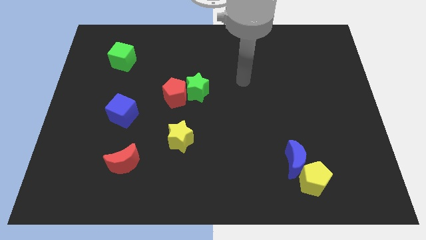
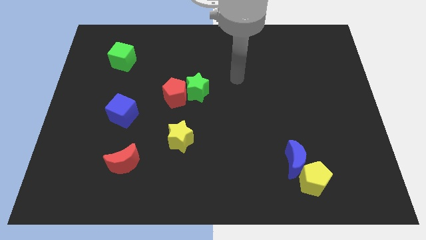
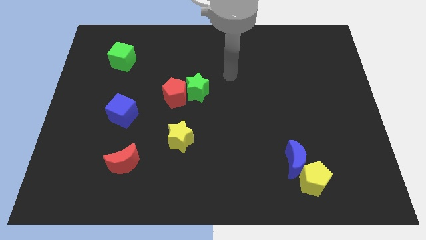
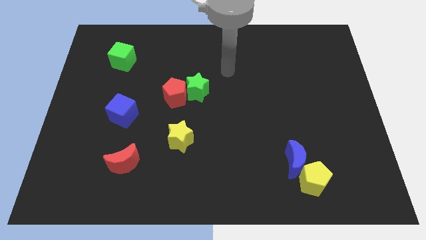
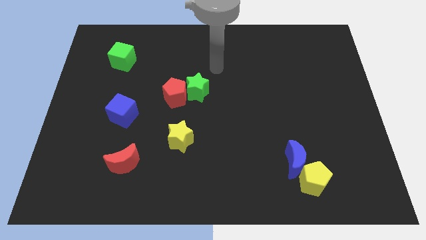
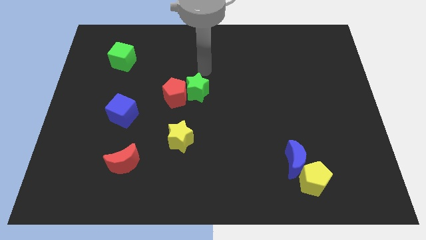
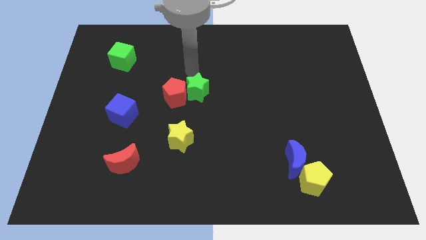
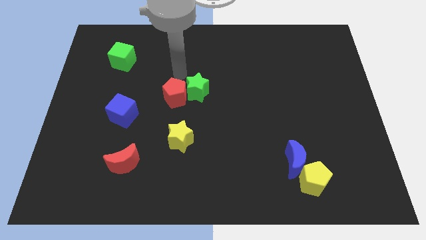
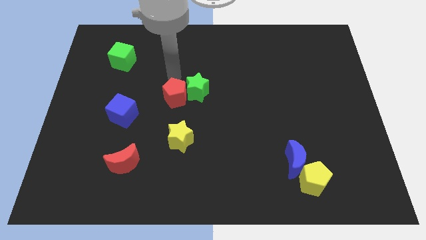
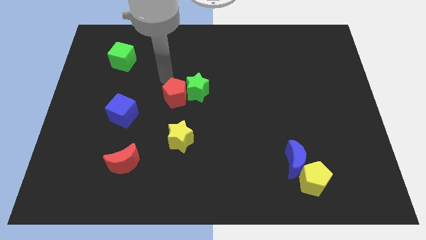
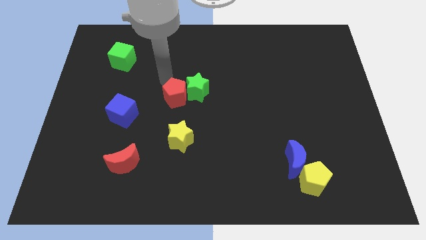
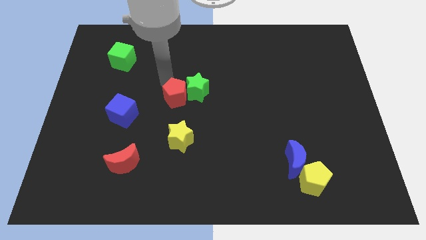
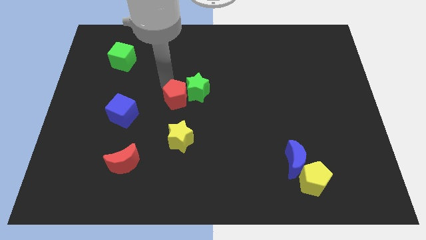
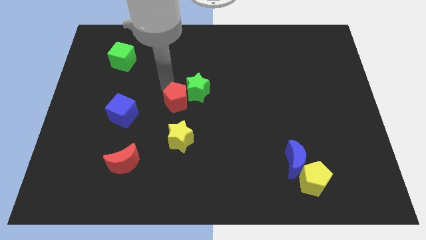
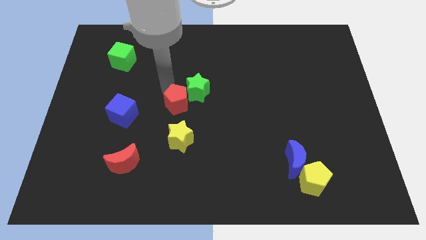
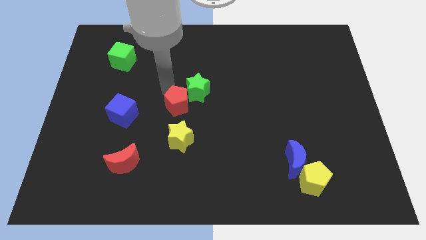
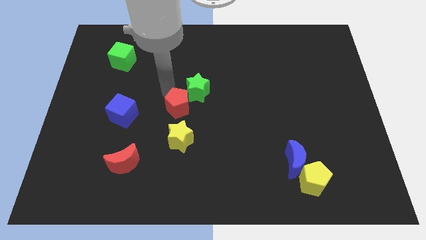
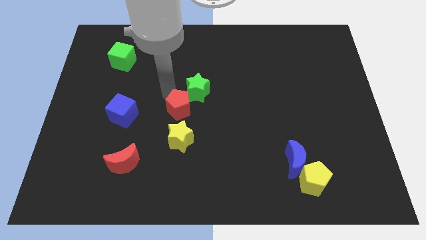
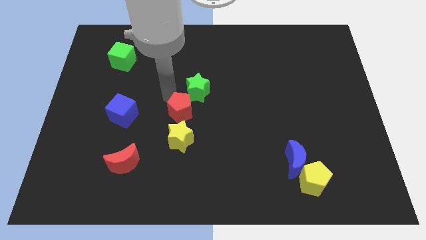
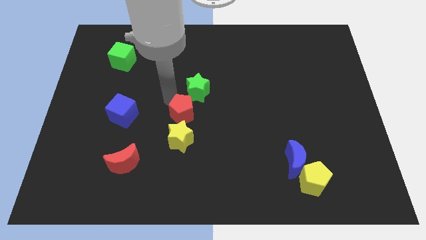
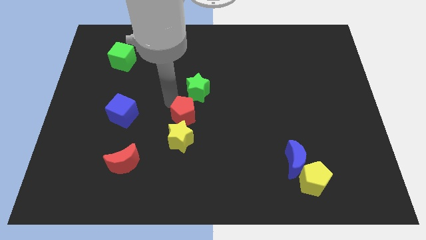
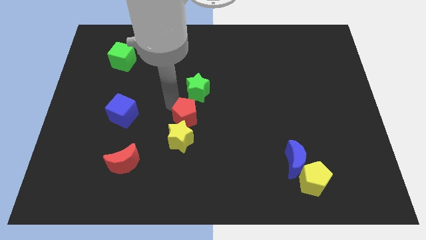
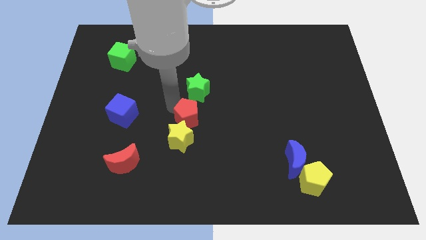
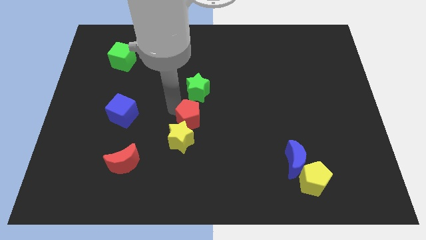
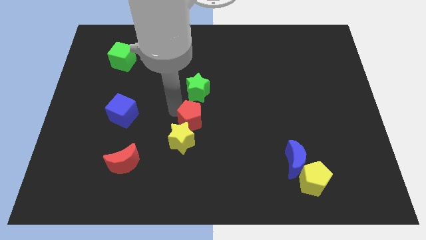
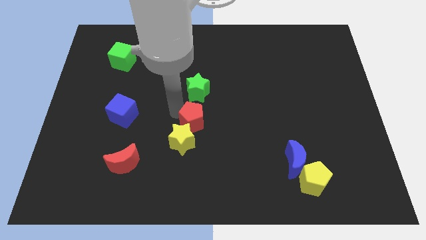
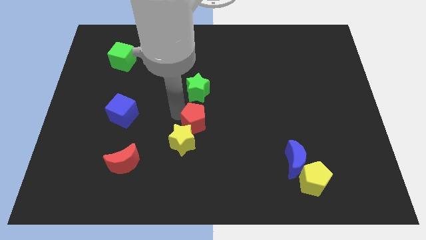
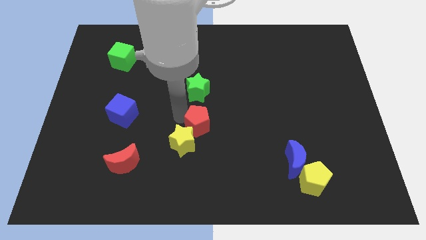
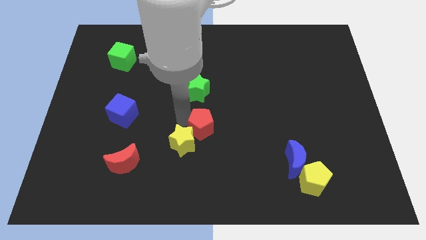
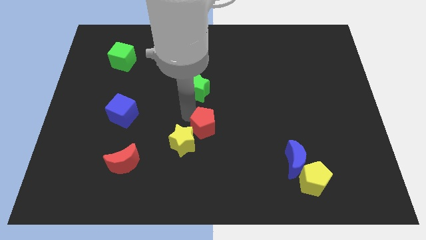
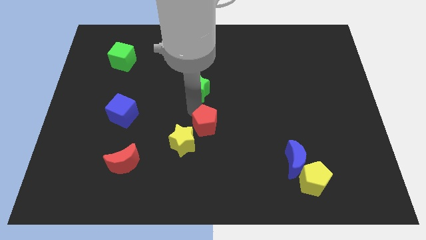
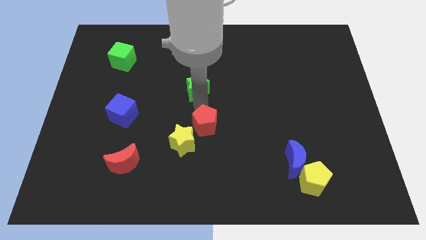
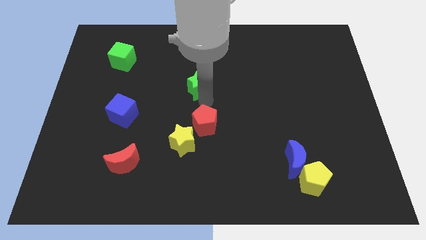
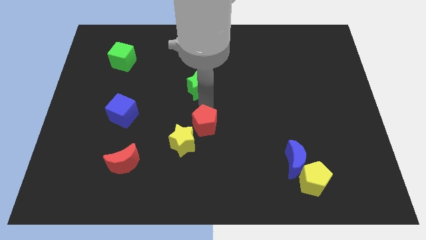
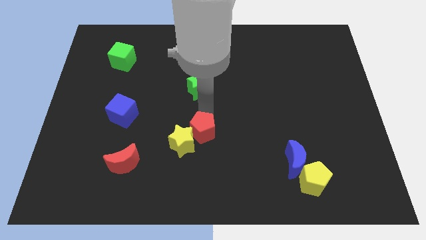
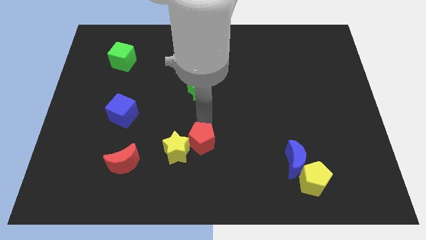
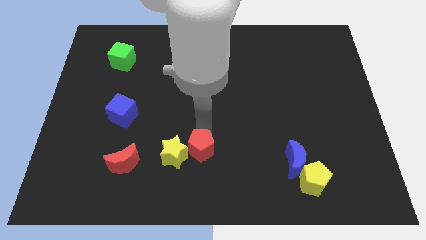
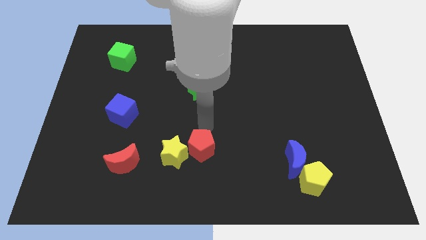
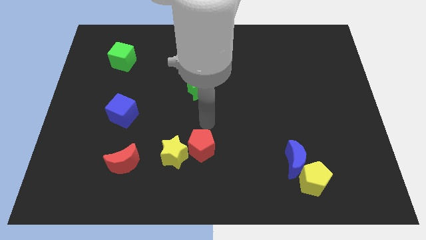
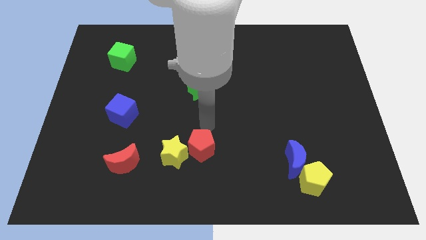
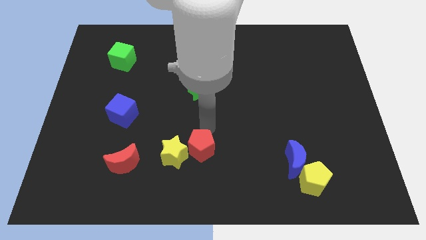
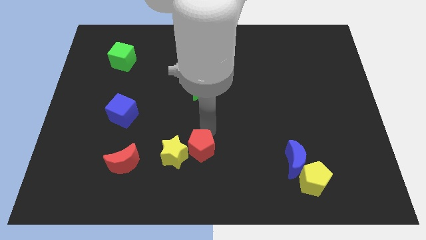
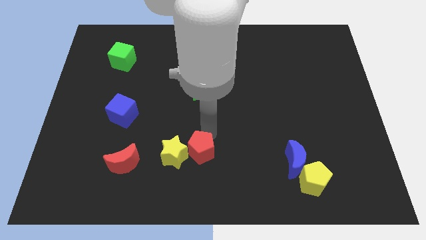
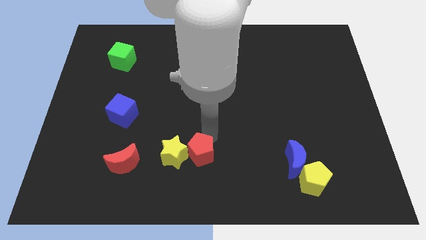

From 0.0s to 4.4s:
put the red pentagon to the bottom right side of the yellow star

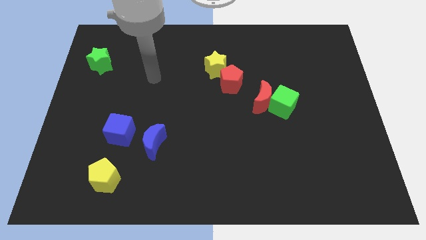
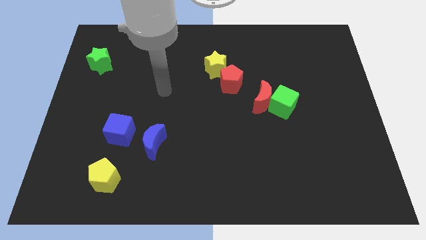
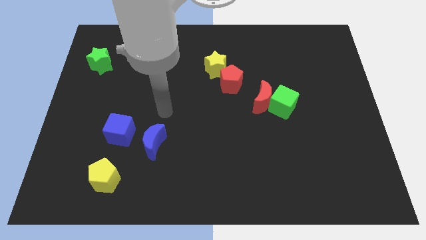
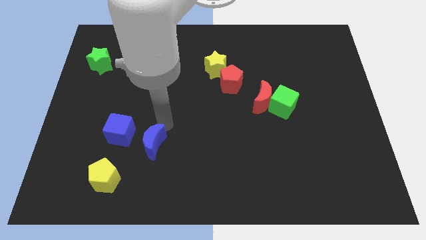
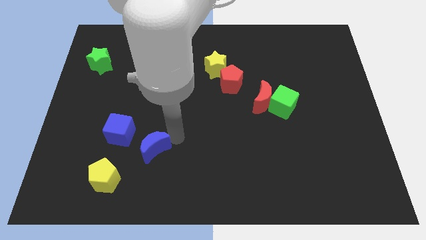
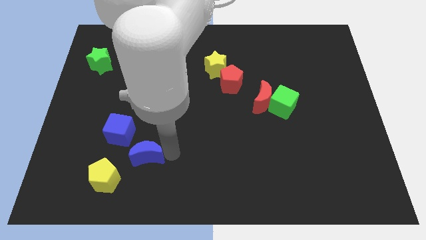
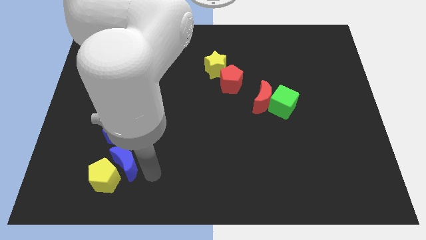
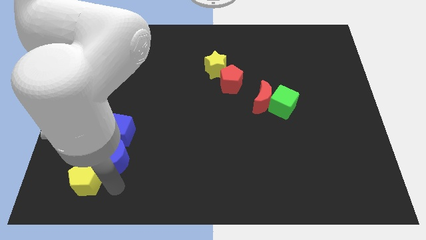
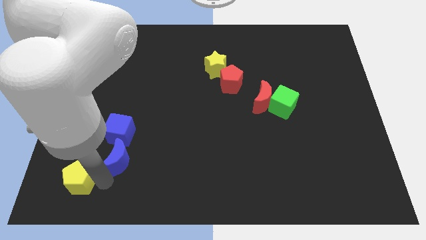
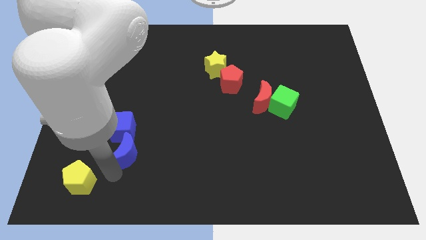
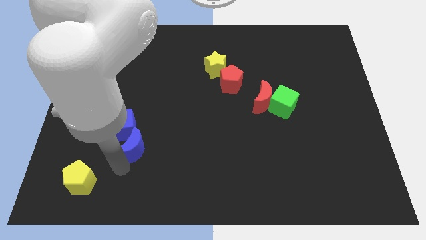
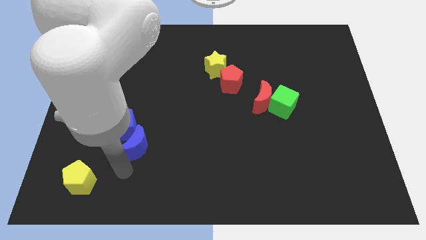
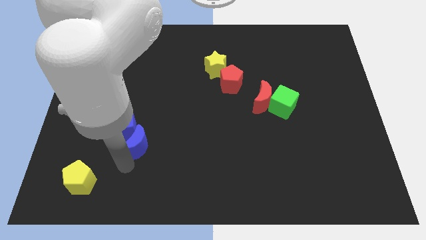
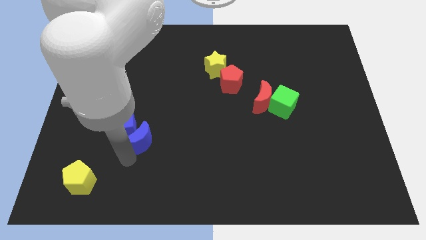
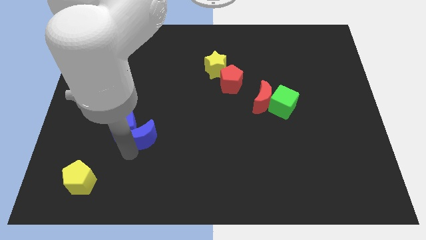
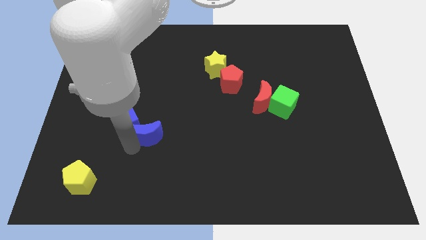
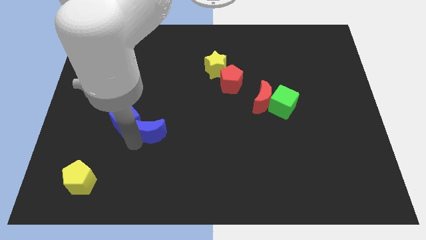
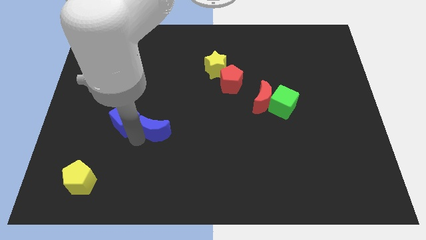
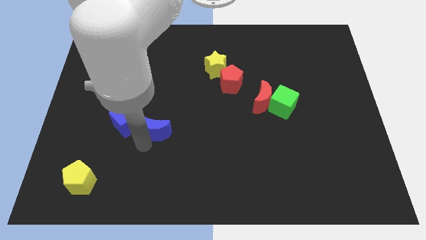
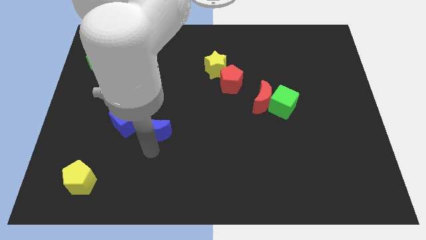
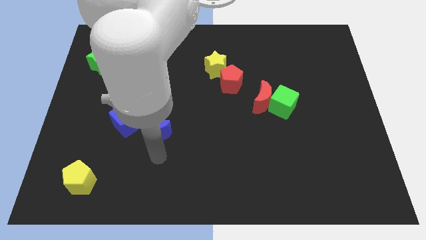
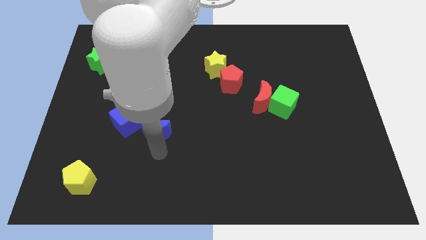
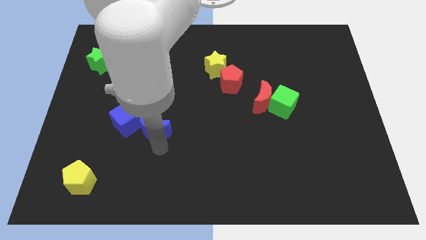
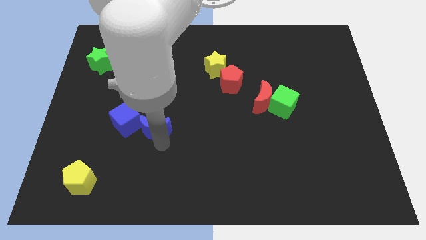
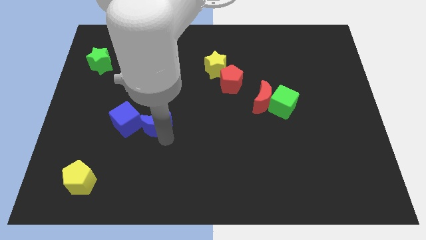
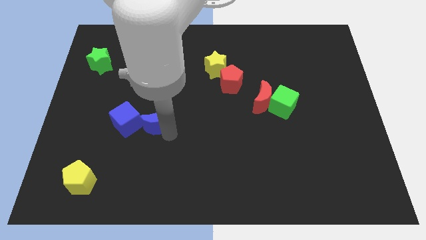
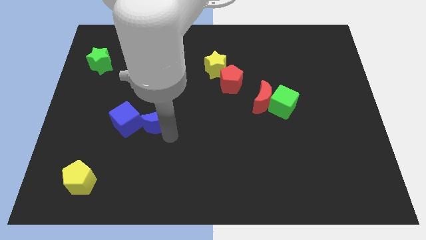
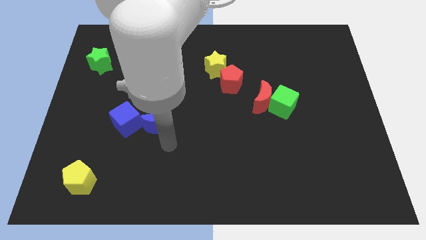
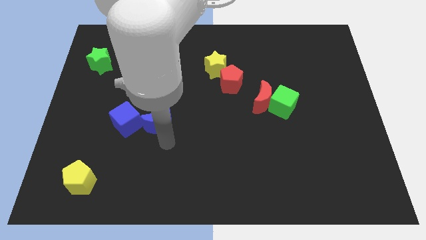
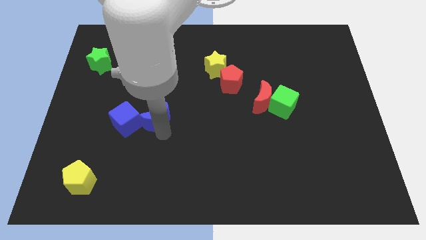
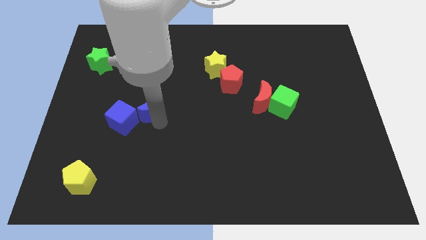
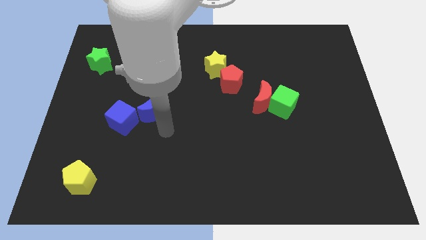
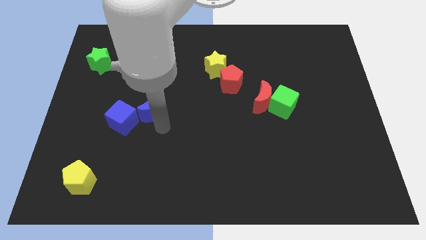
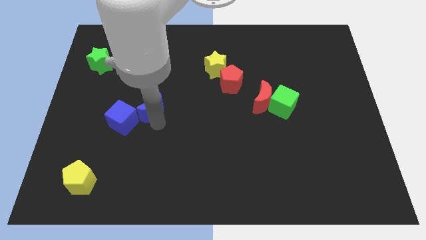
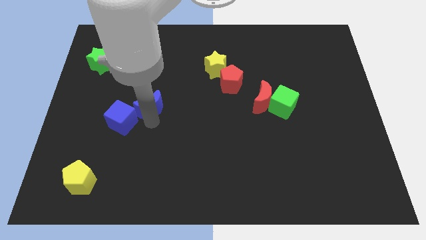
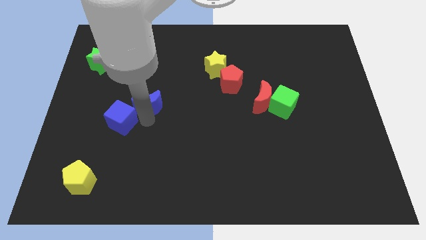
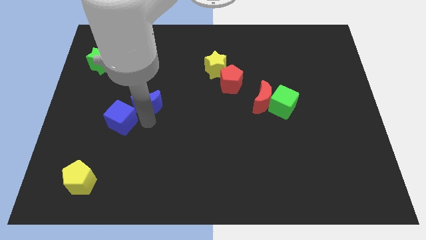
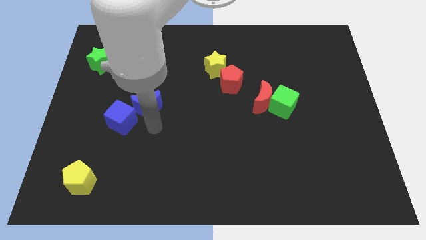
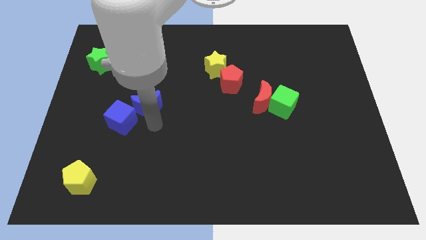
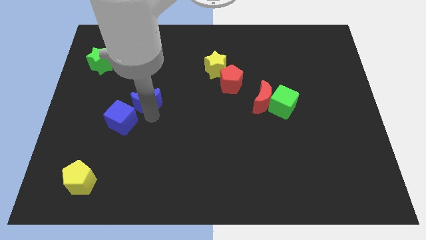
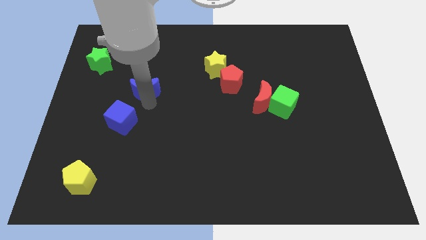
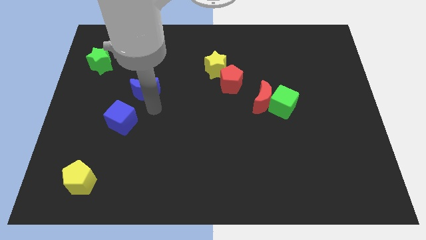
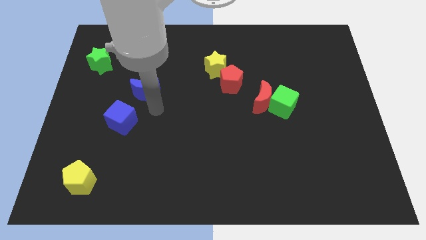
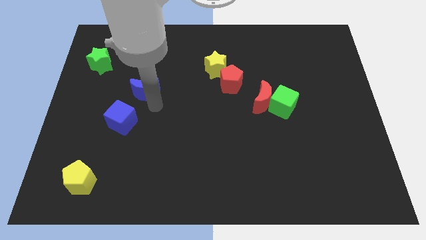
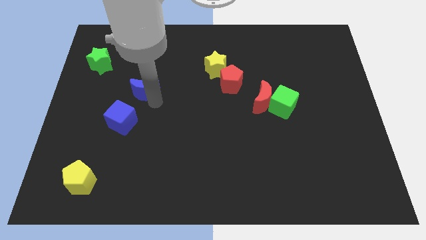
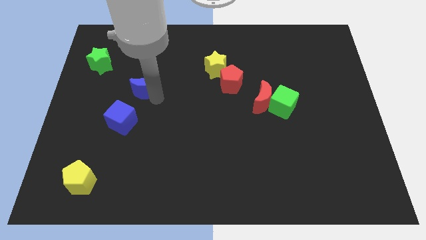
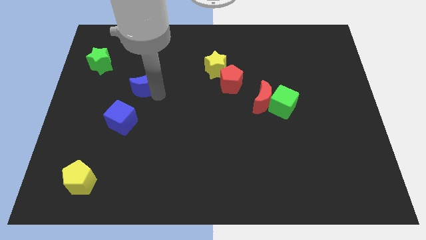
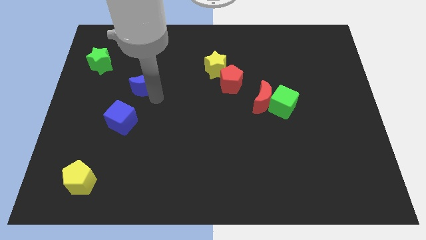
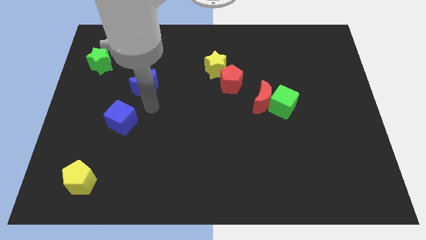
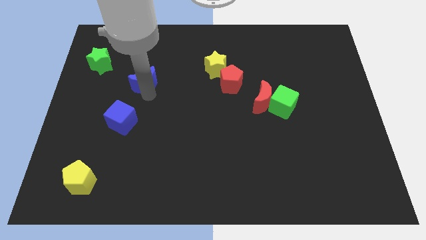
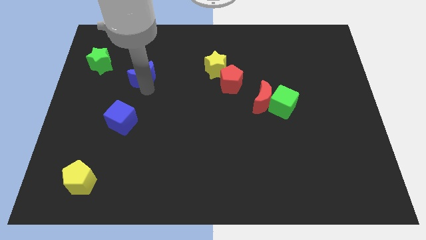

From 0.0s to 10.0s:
slide the blue moon right of the green star
